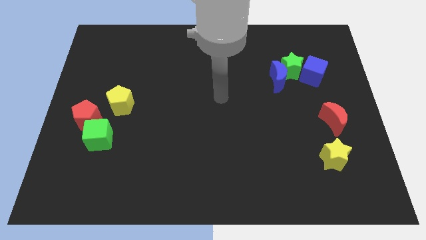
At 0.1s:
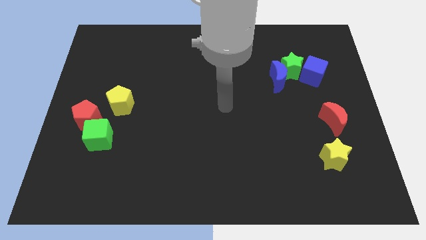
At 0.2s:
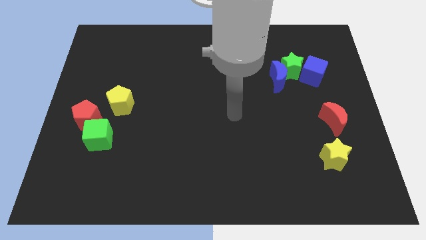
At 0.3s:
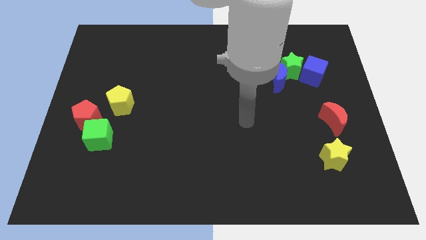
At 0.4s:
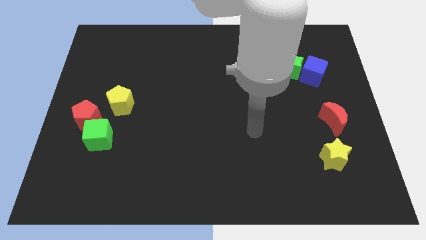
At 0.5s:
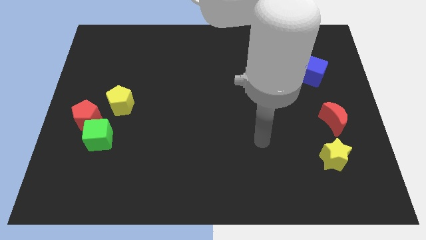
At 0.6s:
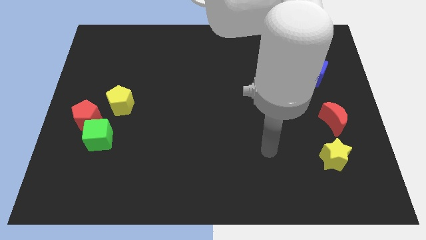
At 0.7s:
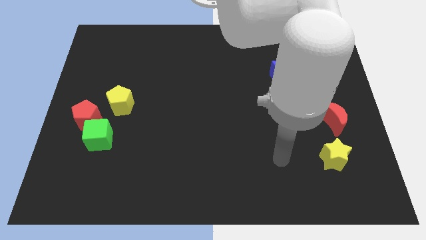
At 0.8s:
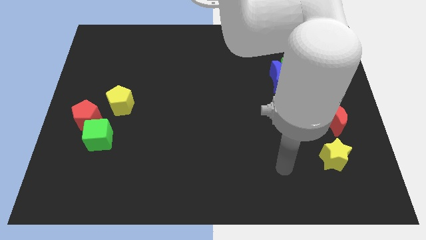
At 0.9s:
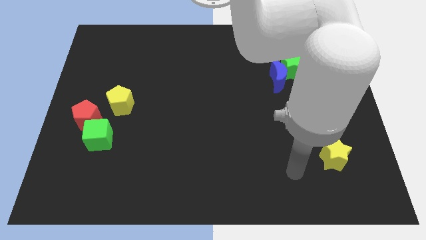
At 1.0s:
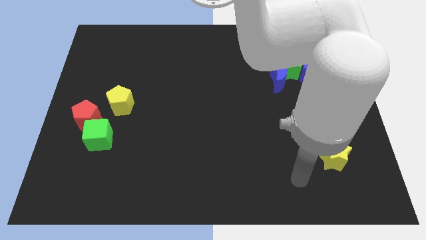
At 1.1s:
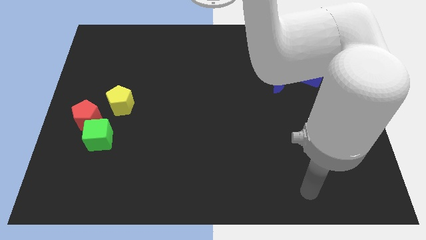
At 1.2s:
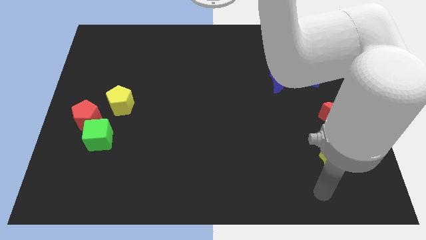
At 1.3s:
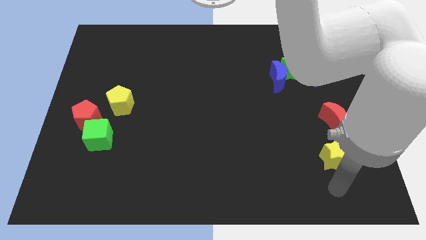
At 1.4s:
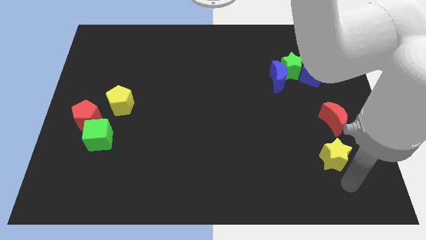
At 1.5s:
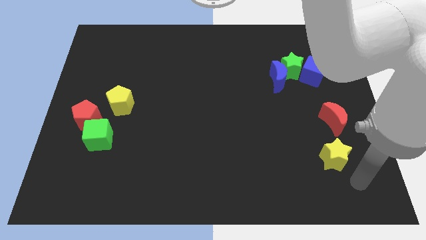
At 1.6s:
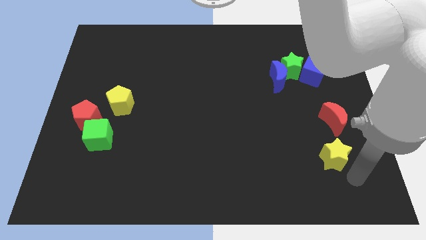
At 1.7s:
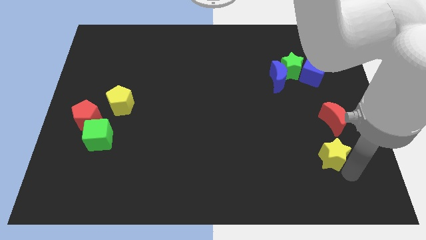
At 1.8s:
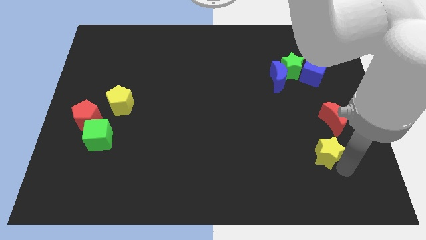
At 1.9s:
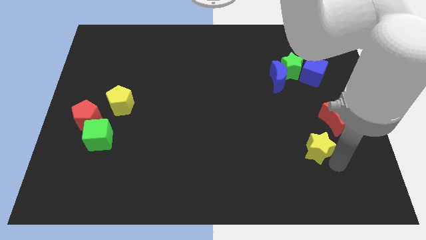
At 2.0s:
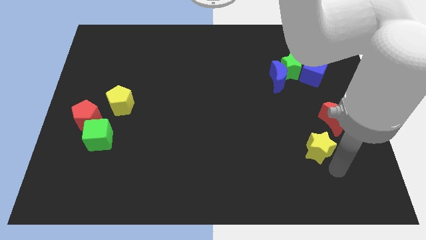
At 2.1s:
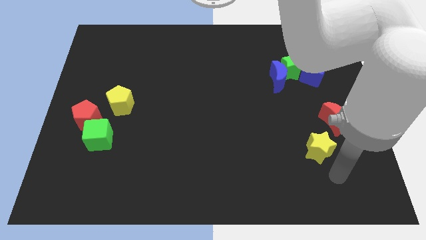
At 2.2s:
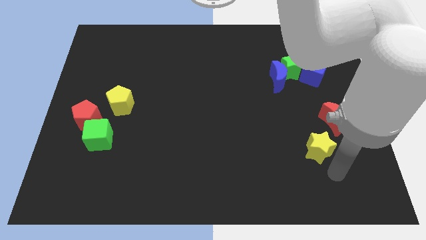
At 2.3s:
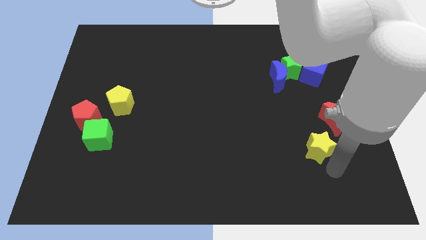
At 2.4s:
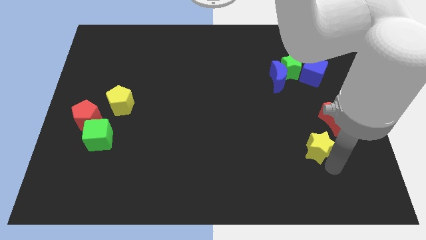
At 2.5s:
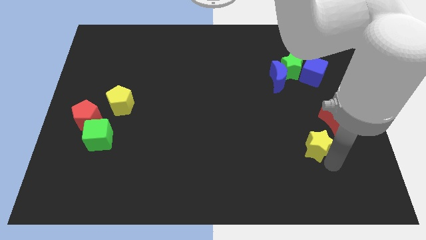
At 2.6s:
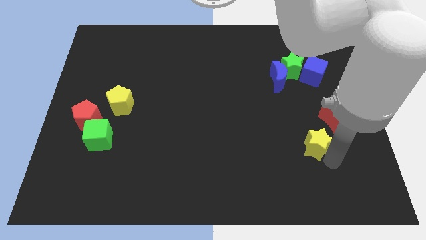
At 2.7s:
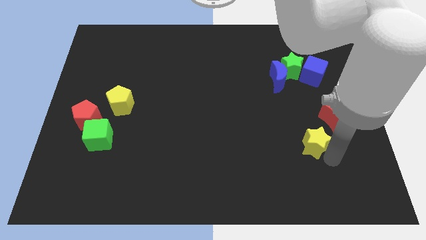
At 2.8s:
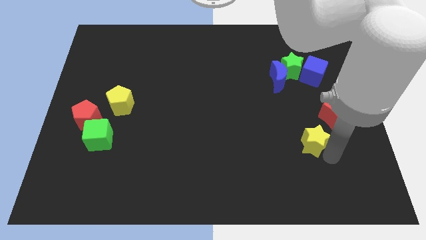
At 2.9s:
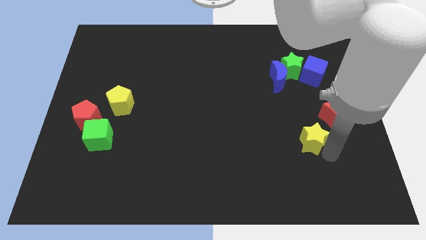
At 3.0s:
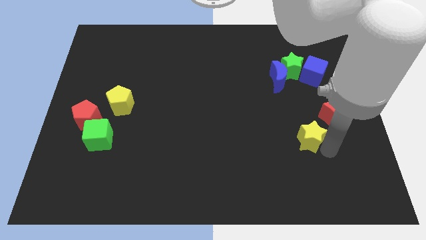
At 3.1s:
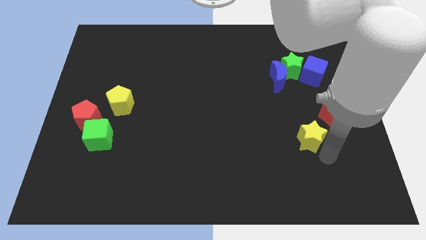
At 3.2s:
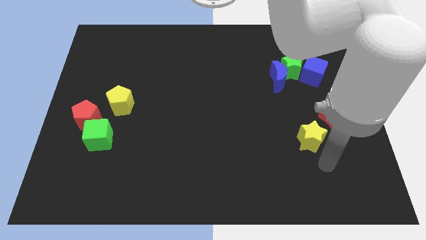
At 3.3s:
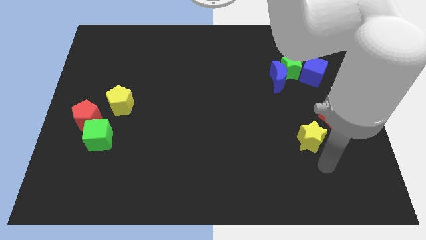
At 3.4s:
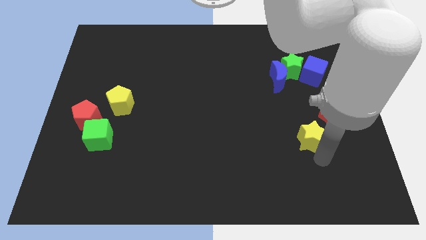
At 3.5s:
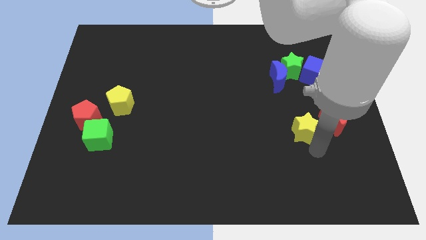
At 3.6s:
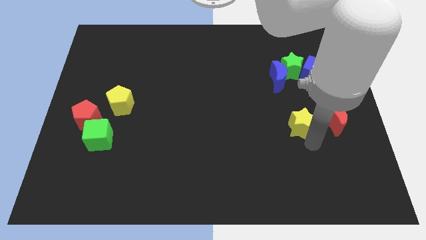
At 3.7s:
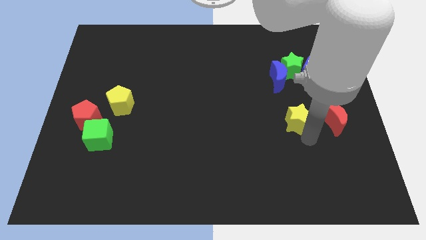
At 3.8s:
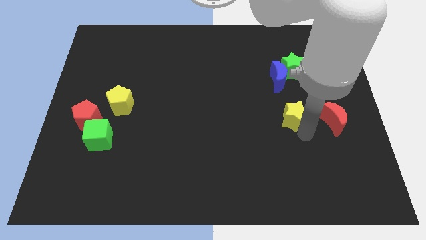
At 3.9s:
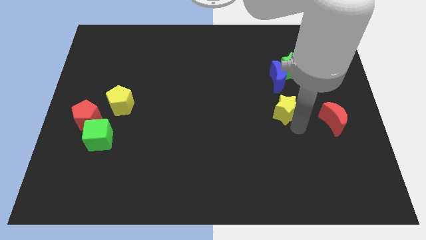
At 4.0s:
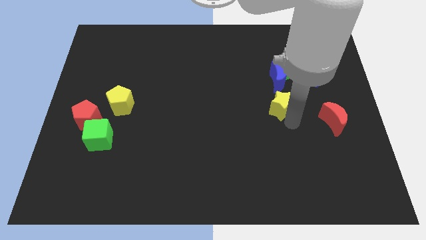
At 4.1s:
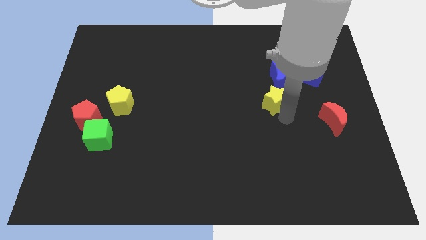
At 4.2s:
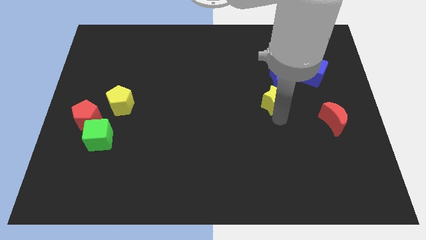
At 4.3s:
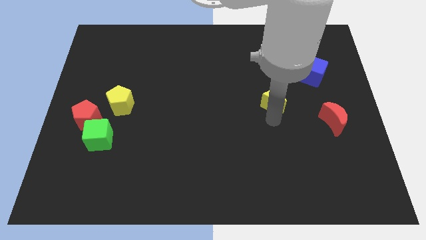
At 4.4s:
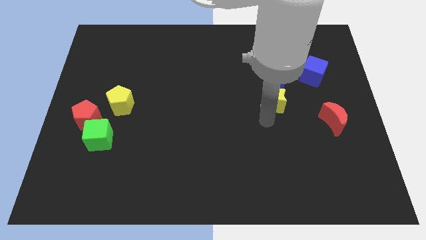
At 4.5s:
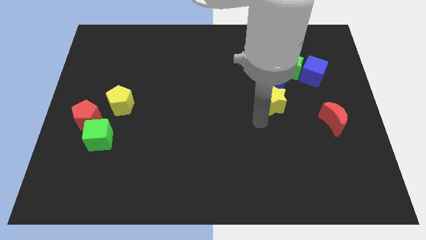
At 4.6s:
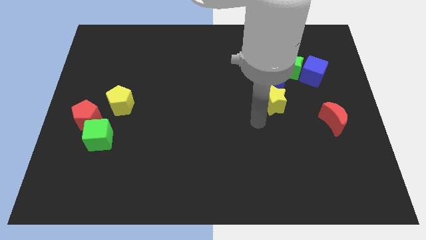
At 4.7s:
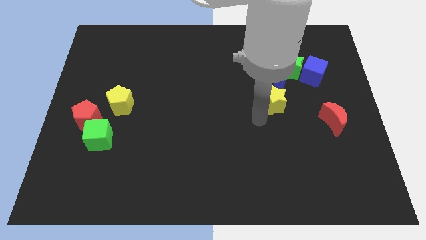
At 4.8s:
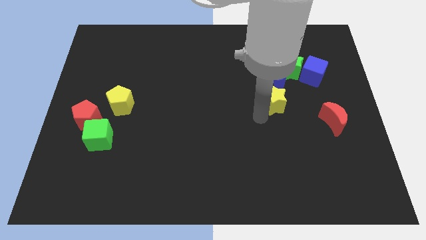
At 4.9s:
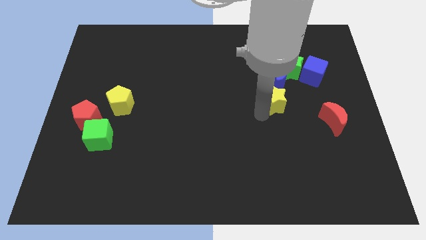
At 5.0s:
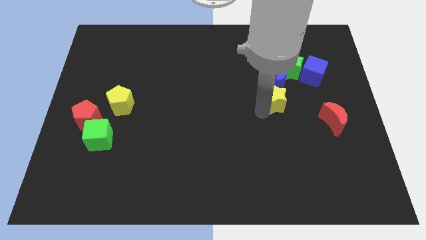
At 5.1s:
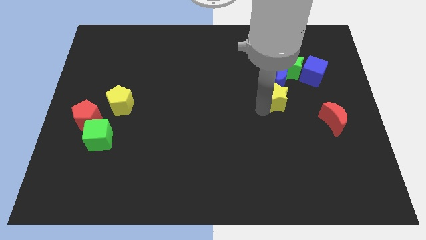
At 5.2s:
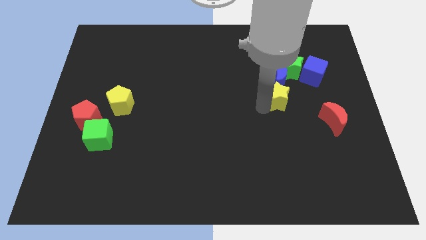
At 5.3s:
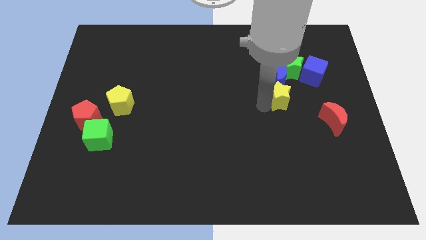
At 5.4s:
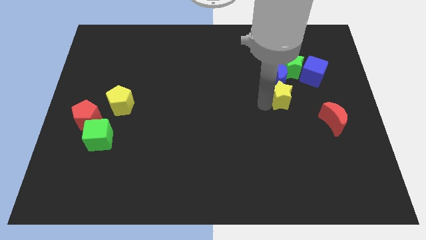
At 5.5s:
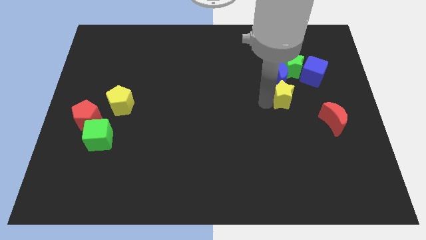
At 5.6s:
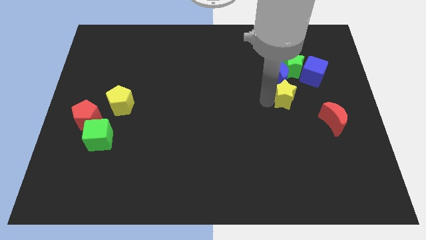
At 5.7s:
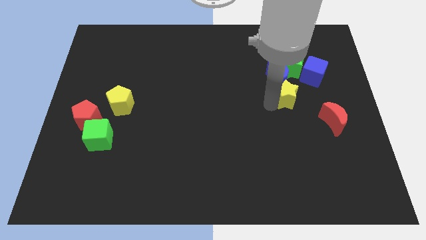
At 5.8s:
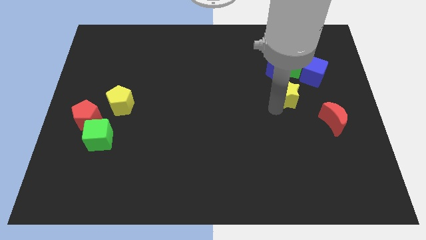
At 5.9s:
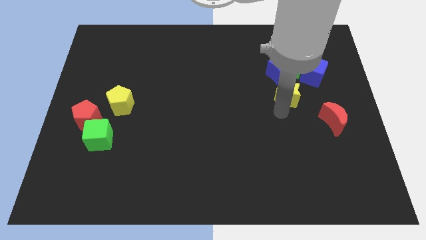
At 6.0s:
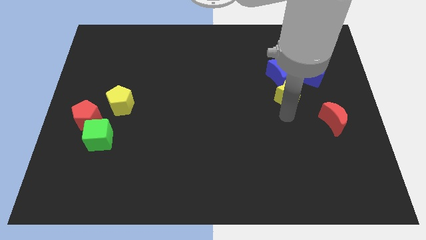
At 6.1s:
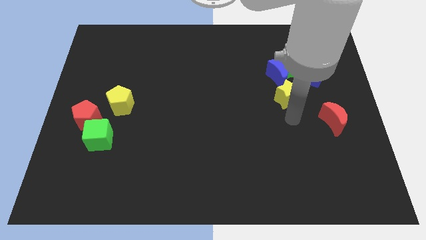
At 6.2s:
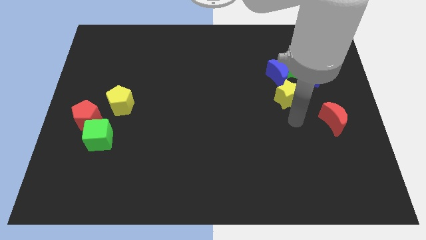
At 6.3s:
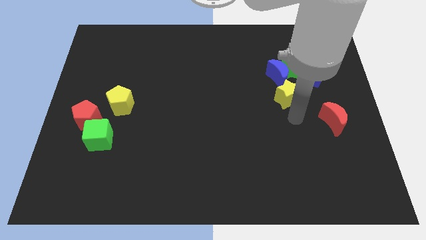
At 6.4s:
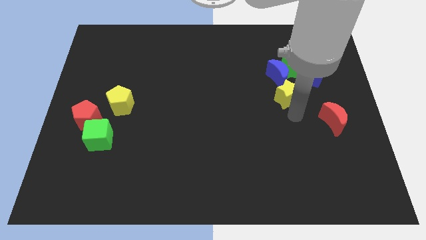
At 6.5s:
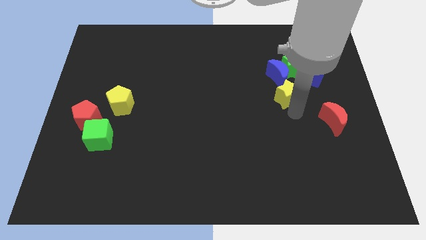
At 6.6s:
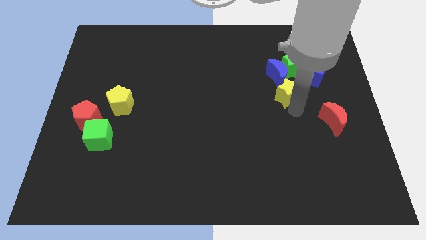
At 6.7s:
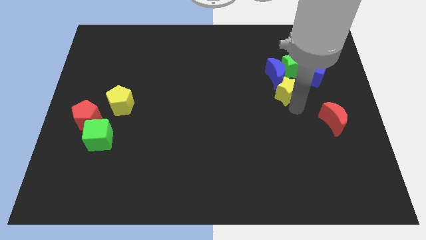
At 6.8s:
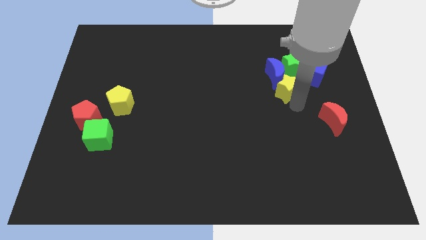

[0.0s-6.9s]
move the yellow star towards the blue moon

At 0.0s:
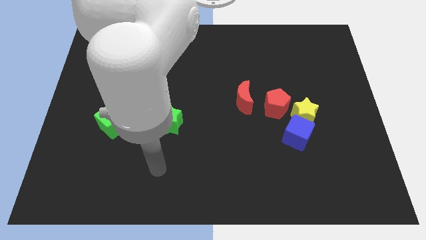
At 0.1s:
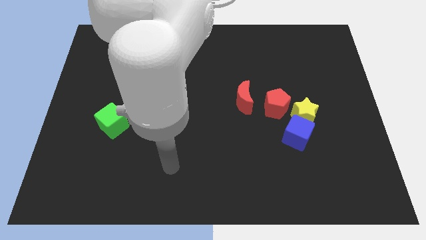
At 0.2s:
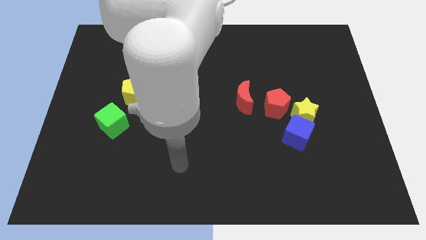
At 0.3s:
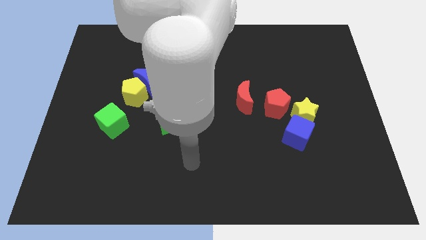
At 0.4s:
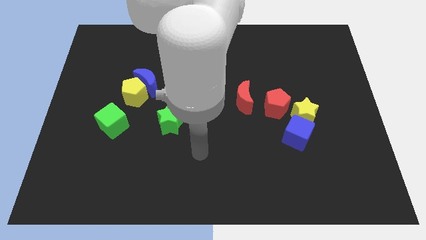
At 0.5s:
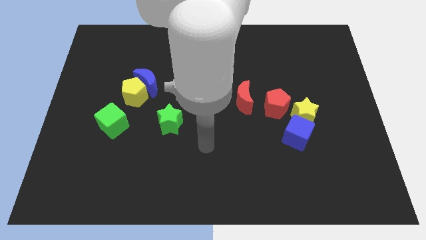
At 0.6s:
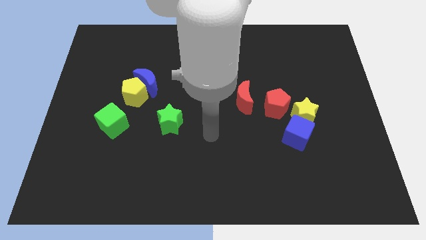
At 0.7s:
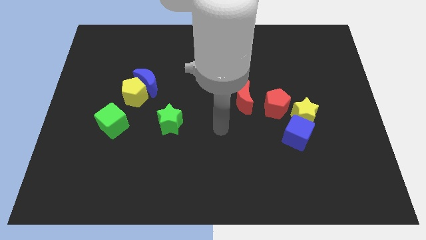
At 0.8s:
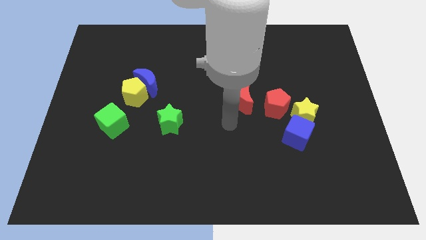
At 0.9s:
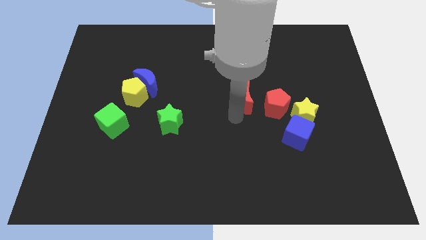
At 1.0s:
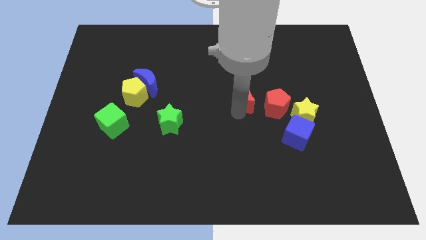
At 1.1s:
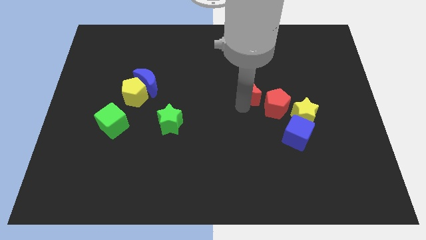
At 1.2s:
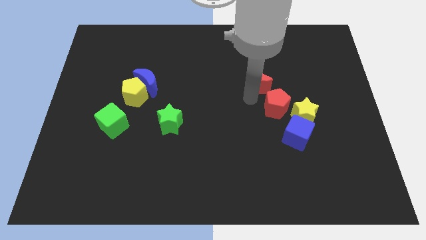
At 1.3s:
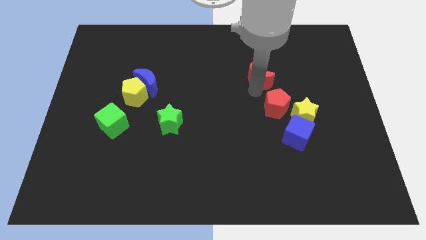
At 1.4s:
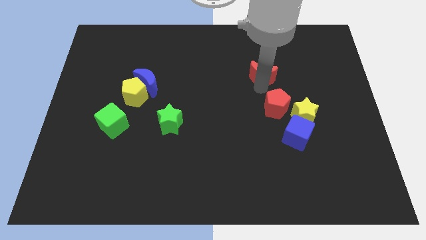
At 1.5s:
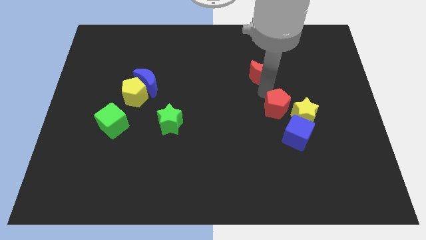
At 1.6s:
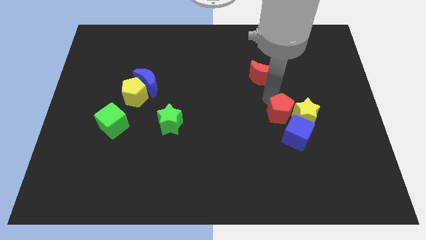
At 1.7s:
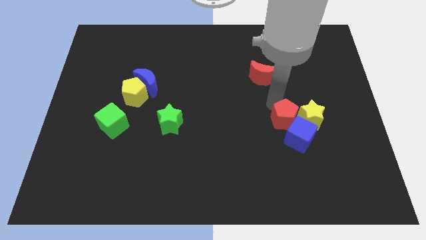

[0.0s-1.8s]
move the red pentagon to the blue cube

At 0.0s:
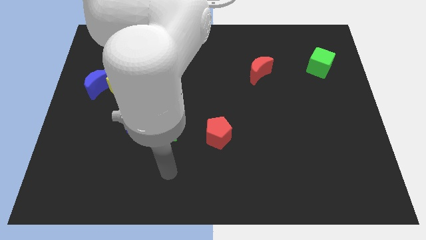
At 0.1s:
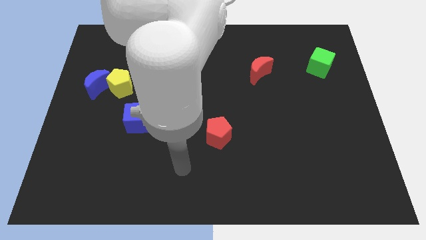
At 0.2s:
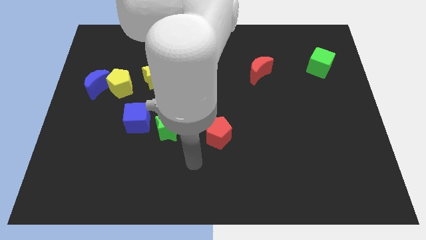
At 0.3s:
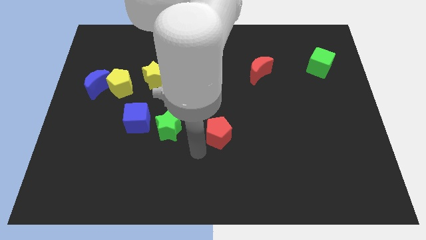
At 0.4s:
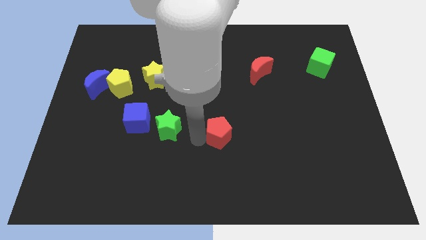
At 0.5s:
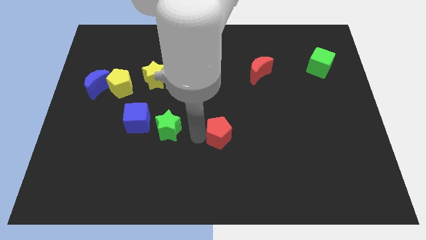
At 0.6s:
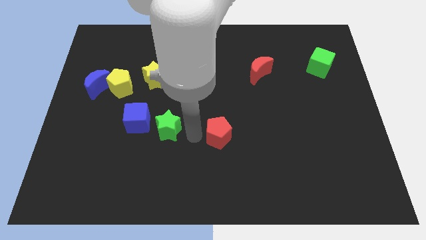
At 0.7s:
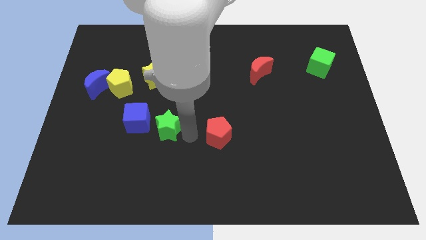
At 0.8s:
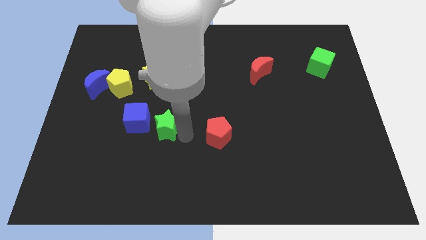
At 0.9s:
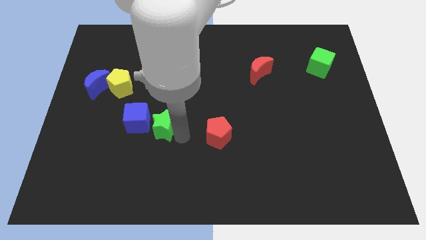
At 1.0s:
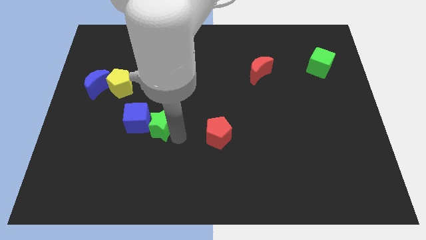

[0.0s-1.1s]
slide the green star to the blue cube
